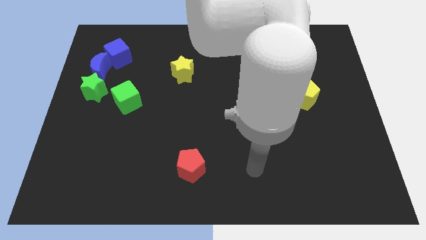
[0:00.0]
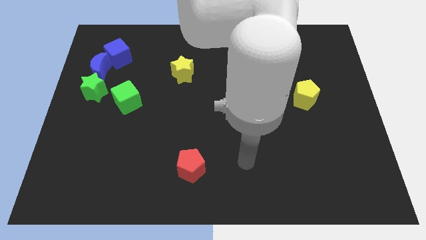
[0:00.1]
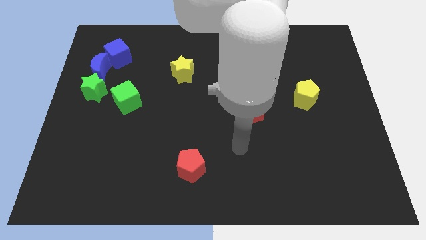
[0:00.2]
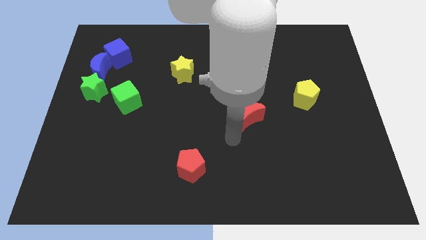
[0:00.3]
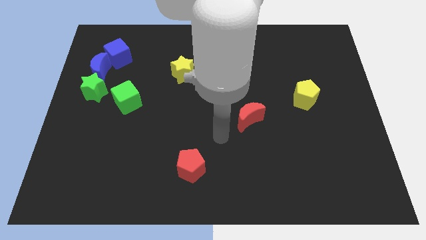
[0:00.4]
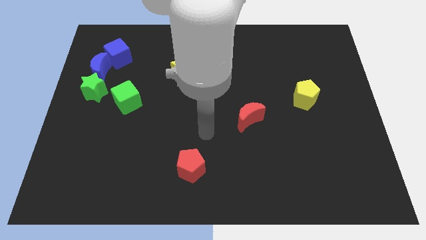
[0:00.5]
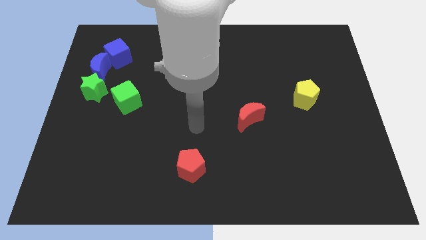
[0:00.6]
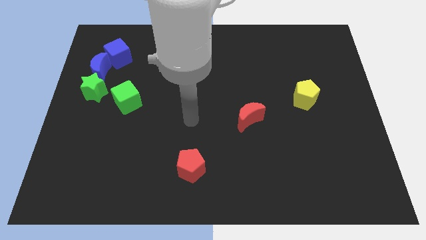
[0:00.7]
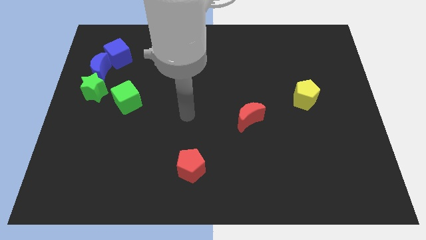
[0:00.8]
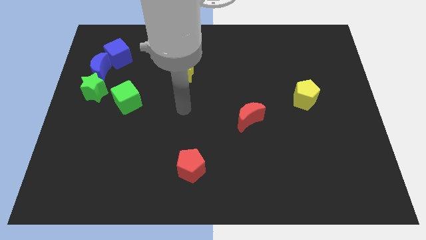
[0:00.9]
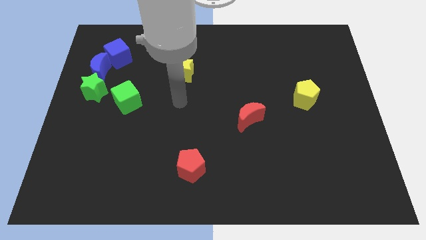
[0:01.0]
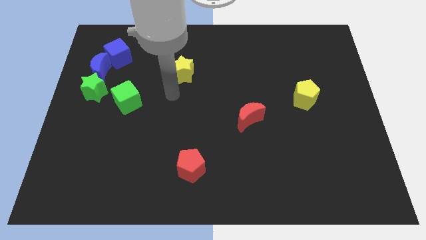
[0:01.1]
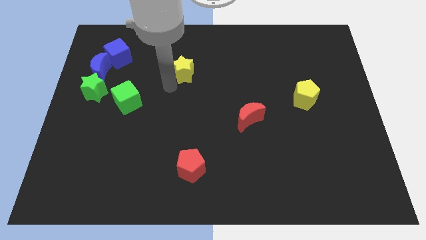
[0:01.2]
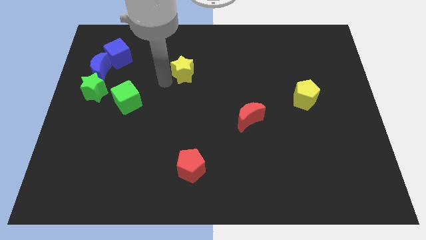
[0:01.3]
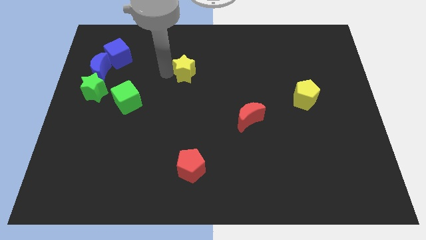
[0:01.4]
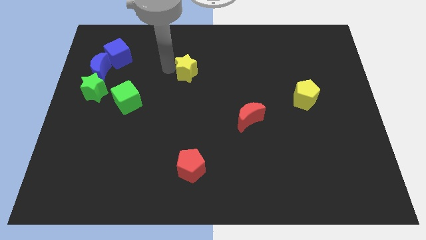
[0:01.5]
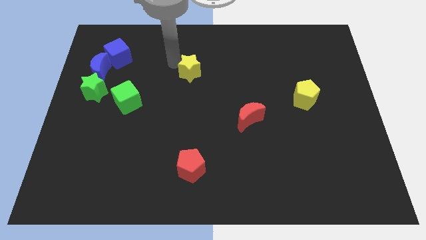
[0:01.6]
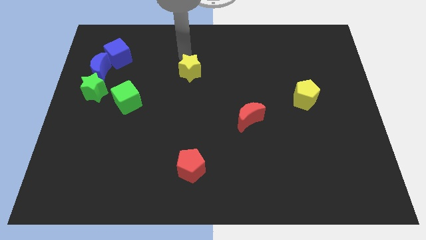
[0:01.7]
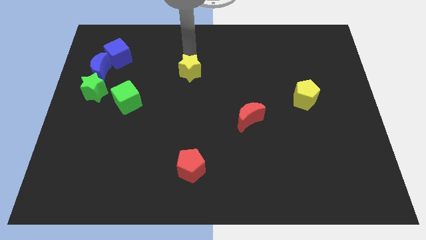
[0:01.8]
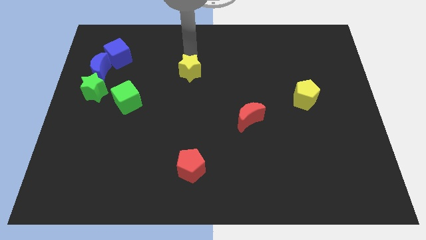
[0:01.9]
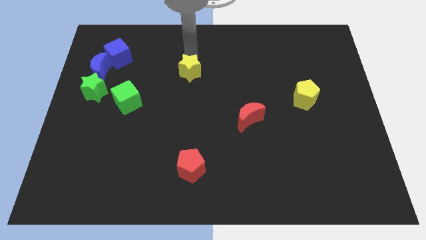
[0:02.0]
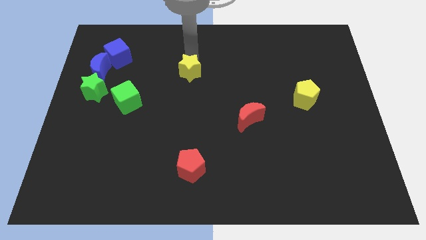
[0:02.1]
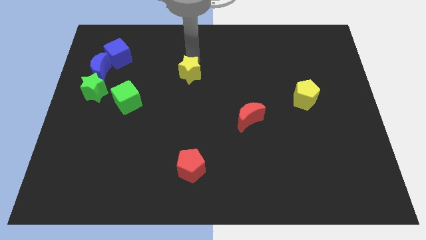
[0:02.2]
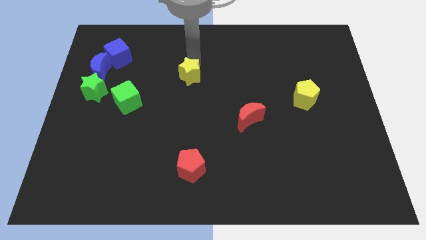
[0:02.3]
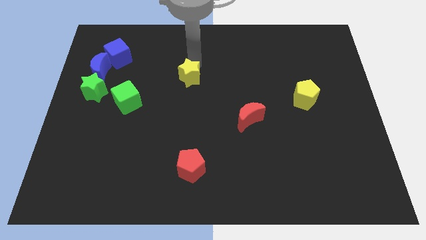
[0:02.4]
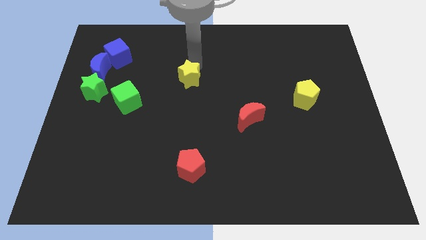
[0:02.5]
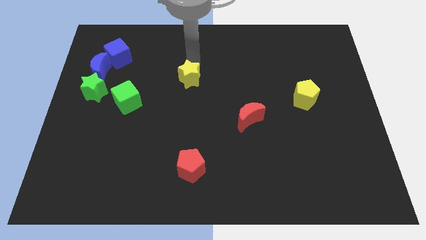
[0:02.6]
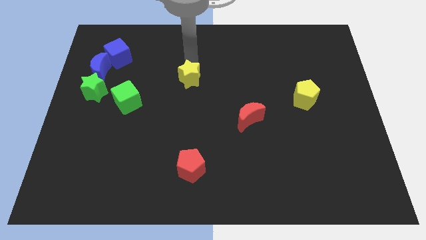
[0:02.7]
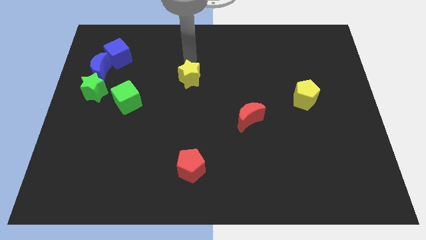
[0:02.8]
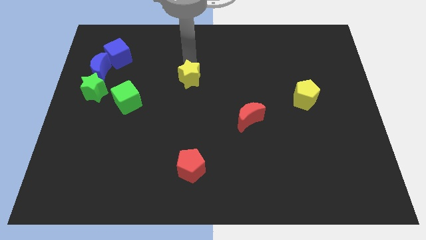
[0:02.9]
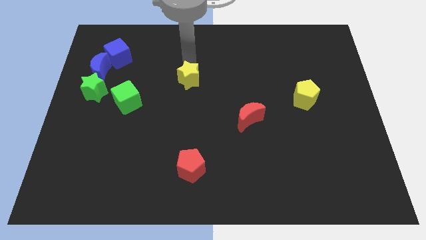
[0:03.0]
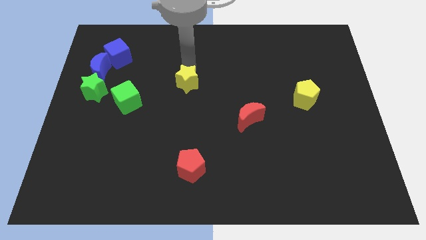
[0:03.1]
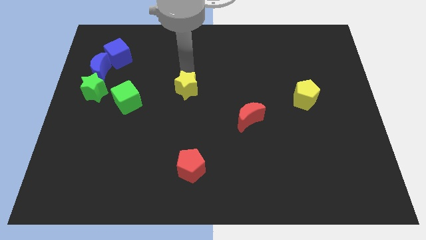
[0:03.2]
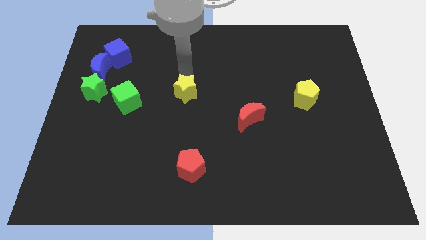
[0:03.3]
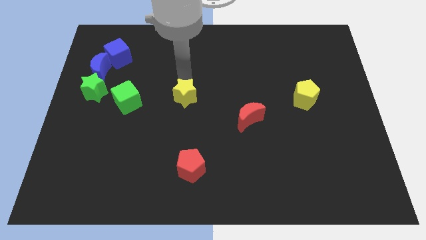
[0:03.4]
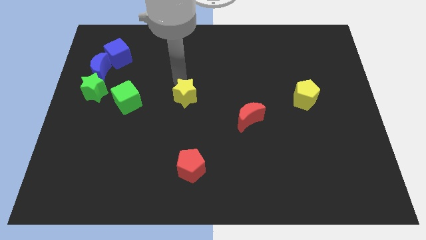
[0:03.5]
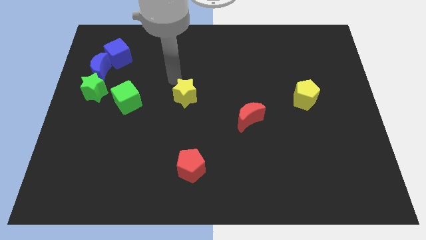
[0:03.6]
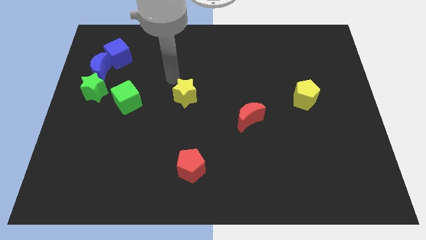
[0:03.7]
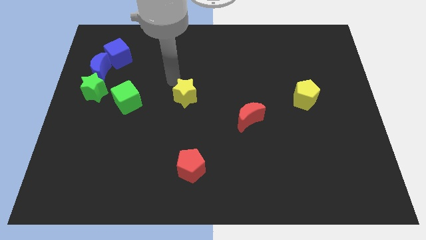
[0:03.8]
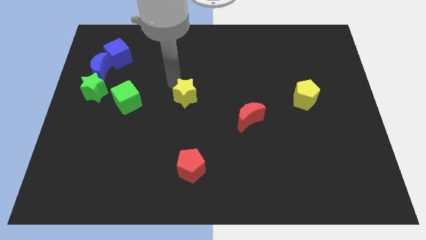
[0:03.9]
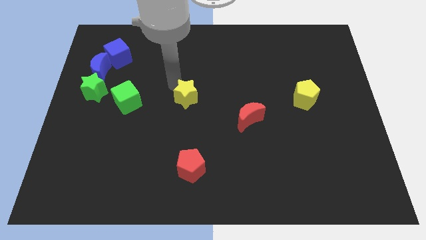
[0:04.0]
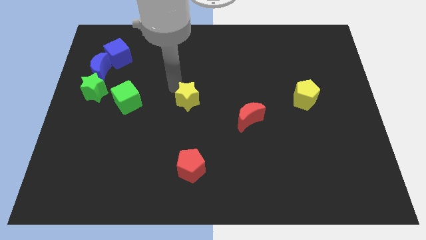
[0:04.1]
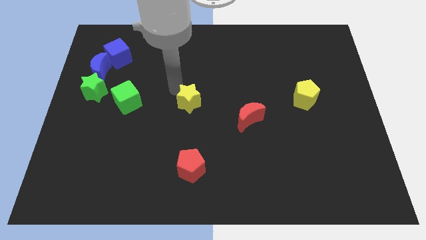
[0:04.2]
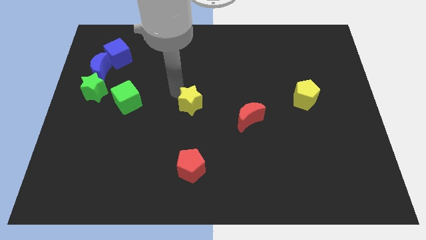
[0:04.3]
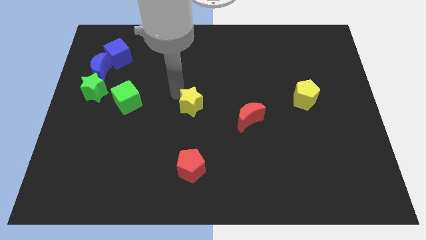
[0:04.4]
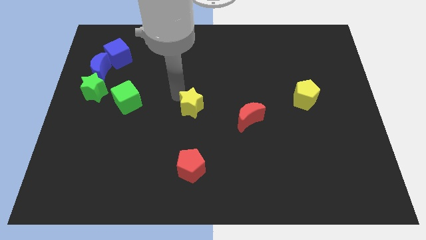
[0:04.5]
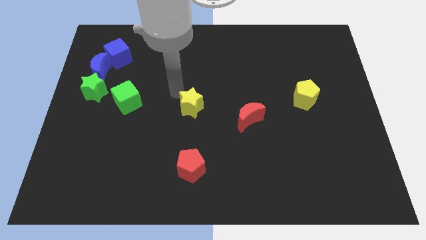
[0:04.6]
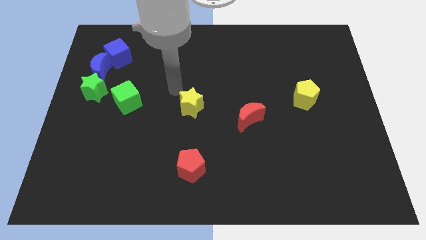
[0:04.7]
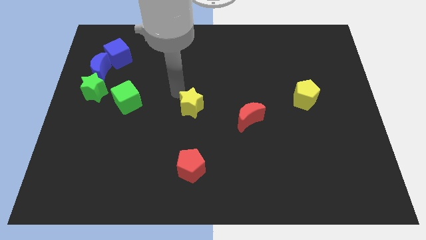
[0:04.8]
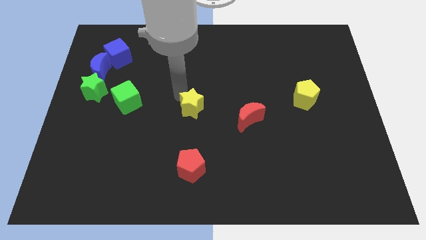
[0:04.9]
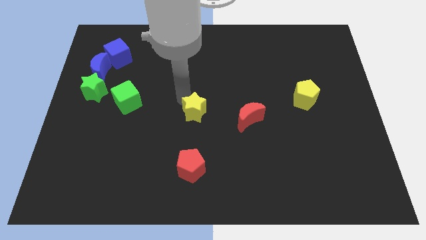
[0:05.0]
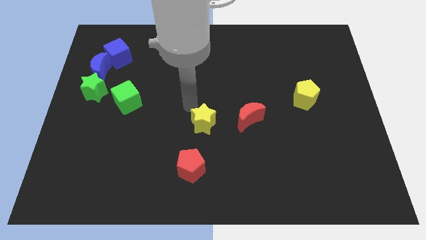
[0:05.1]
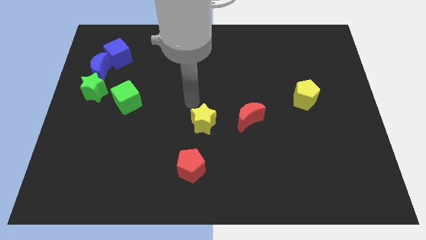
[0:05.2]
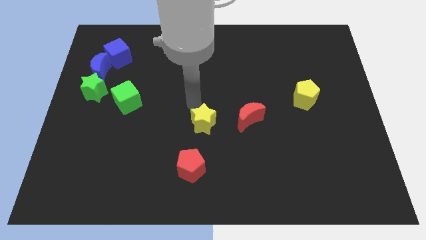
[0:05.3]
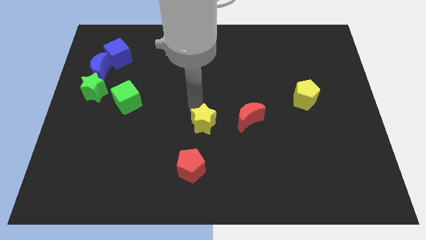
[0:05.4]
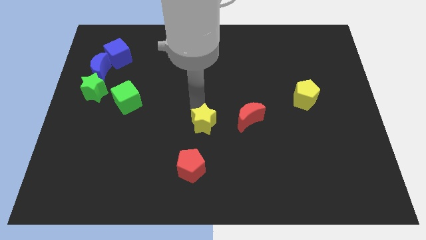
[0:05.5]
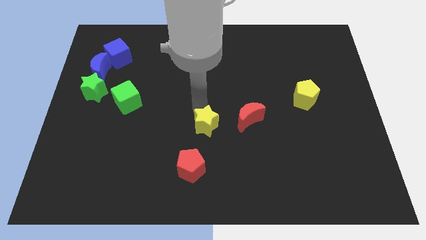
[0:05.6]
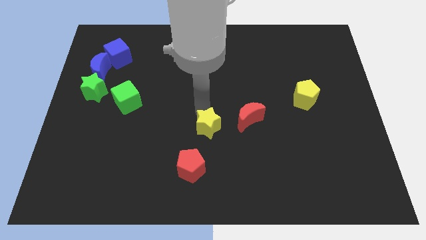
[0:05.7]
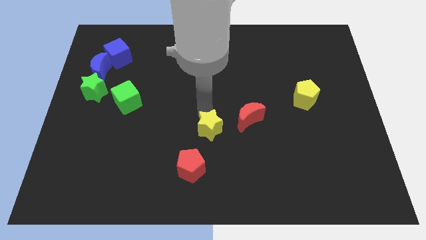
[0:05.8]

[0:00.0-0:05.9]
slide the yellow star diagonally up and to the right of the red pentagon
